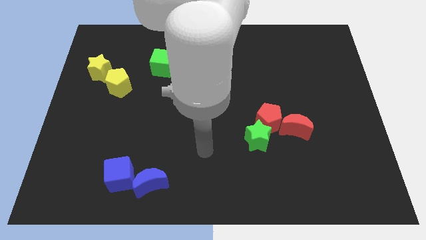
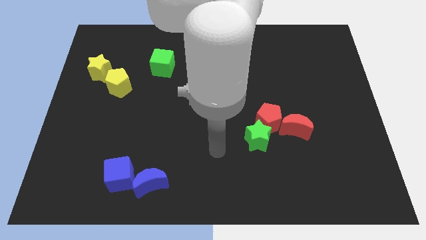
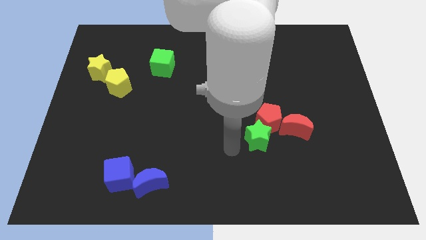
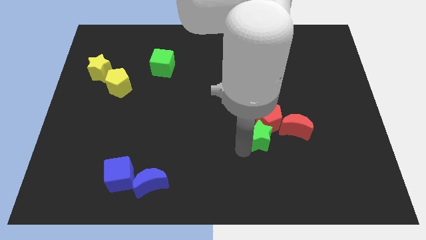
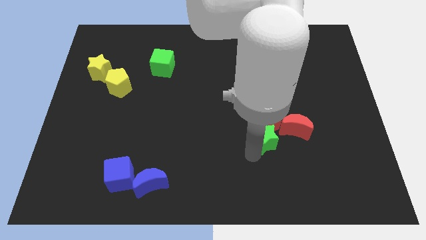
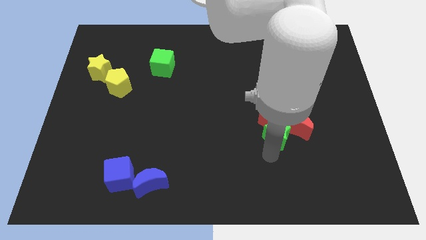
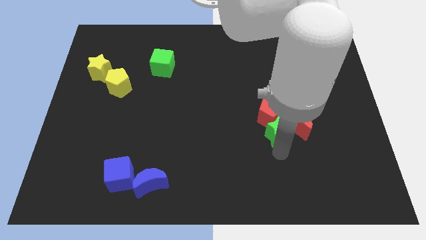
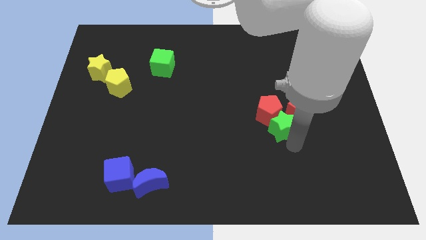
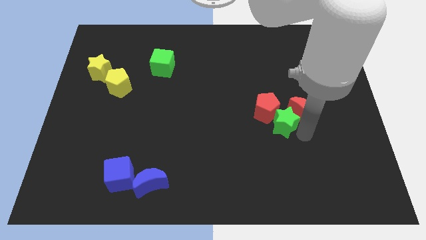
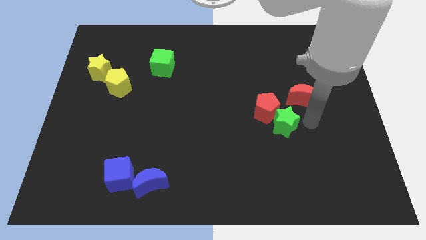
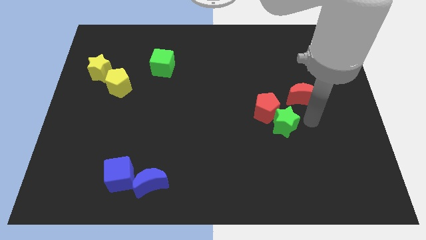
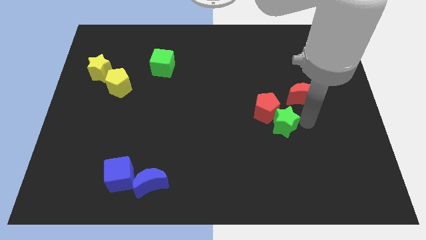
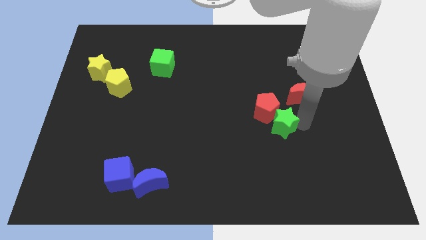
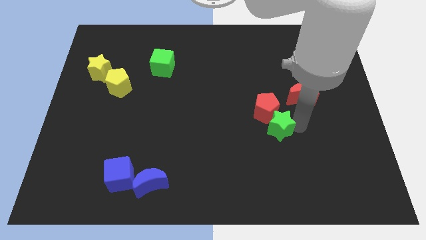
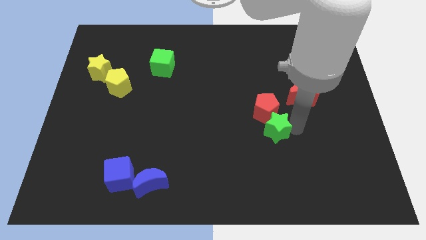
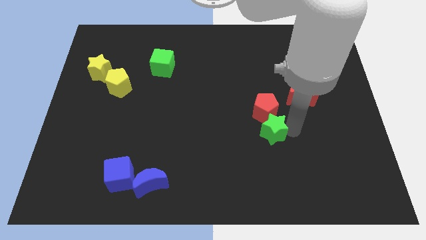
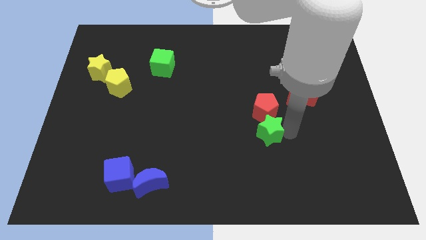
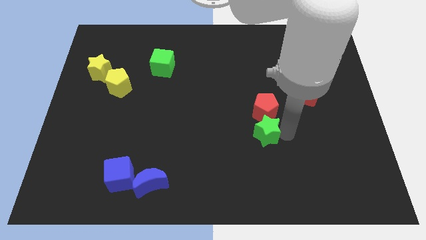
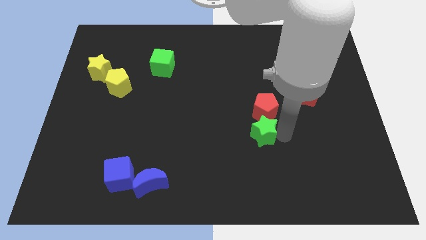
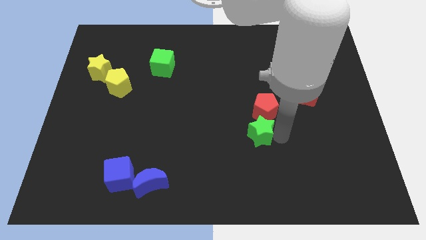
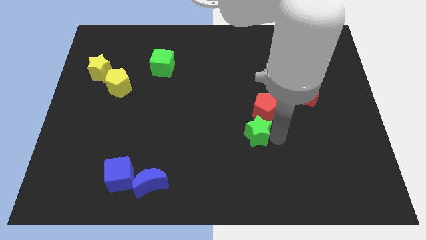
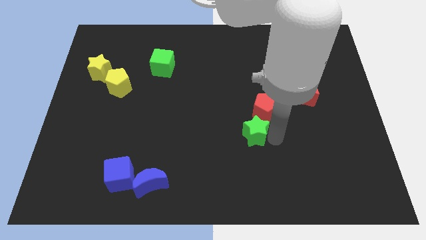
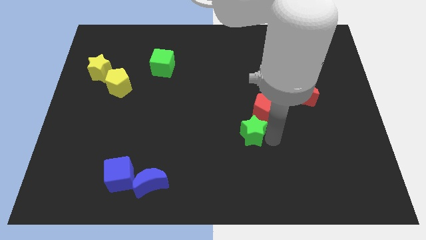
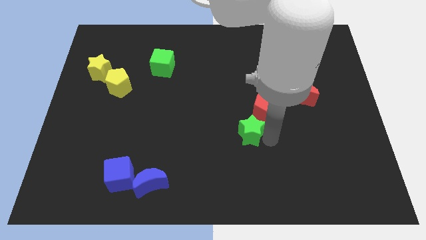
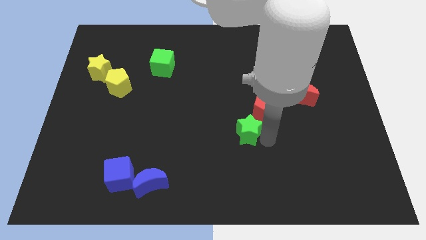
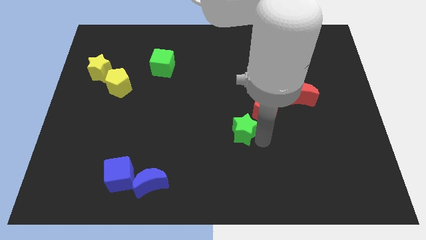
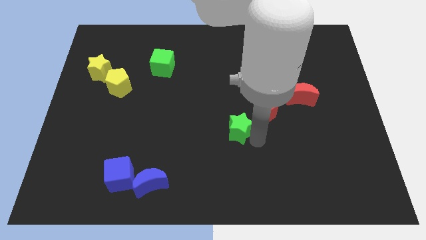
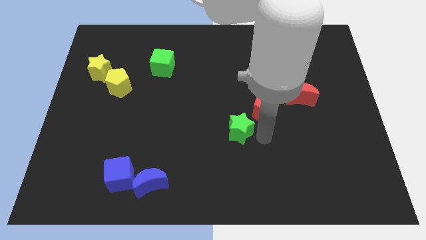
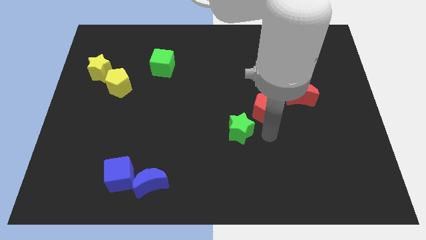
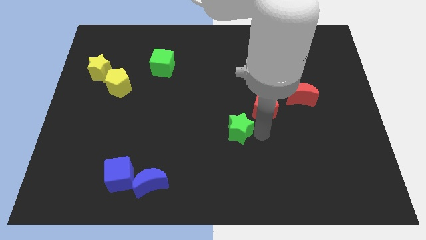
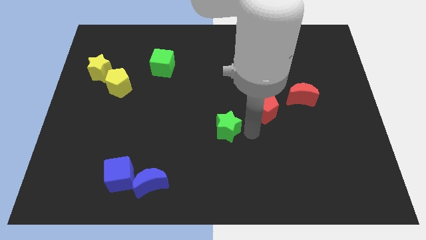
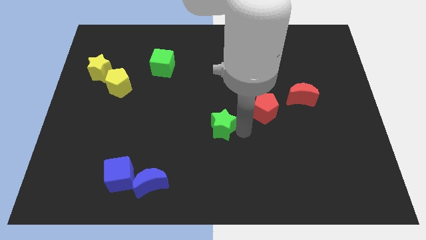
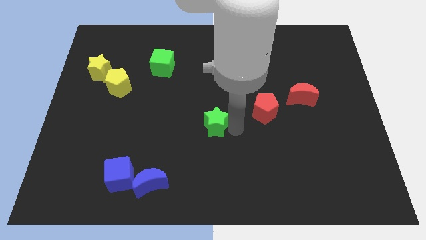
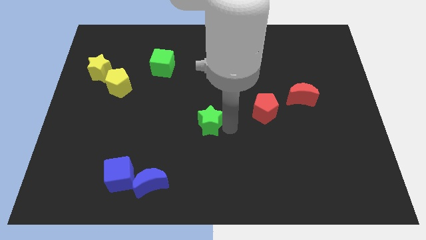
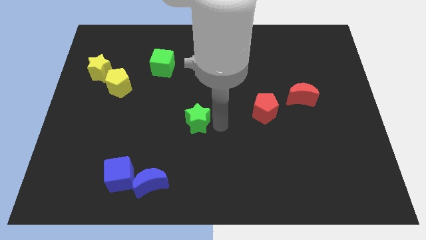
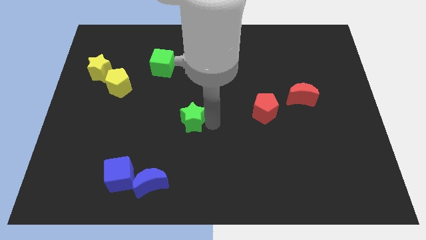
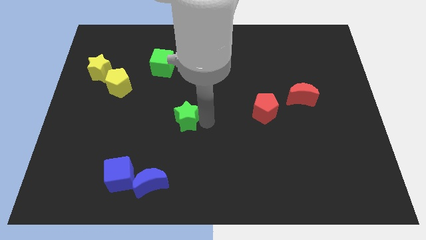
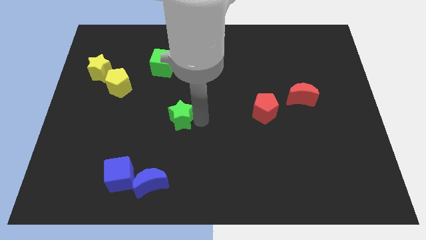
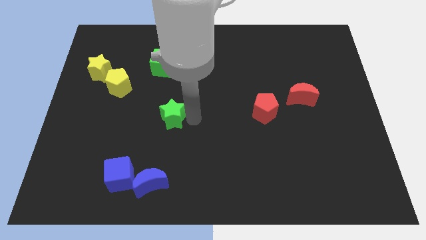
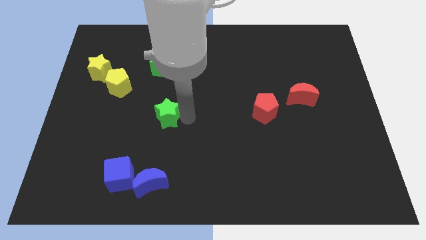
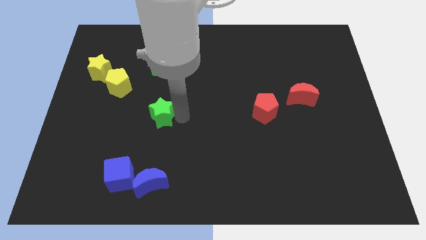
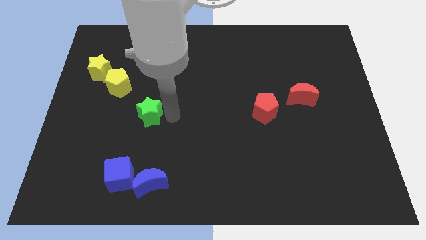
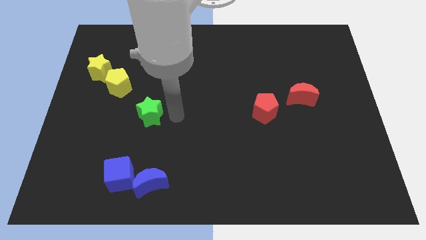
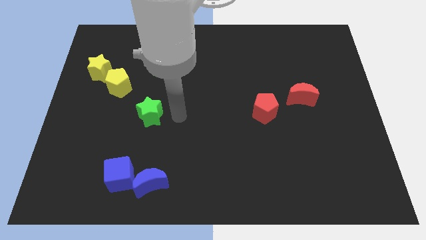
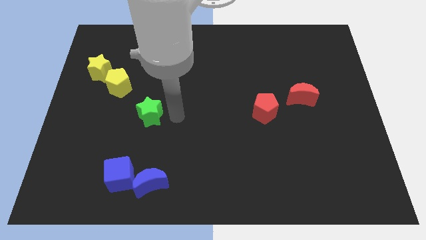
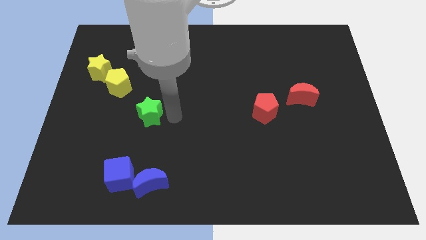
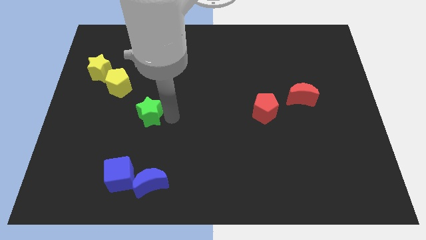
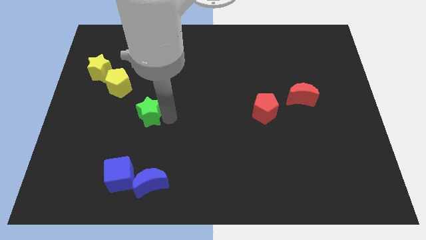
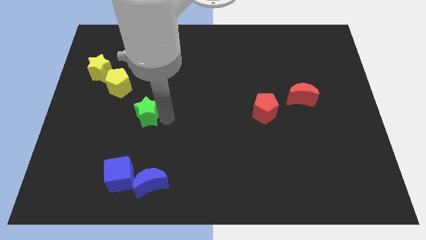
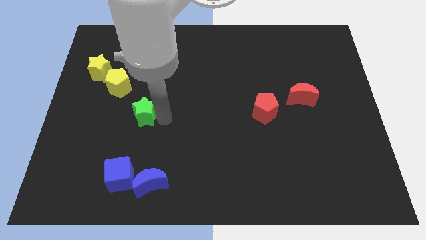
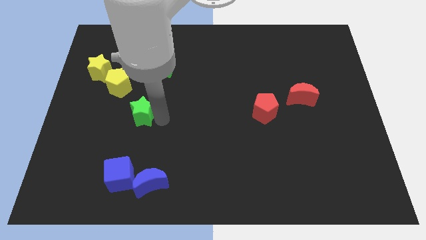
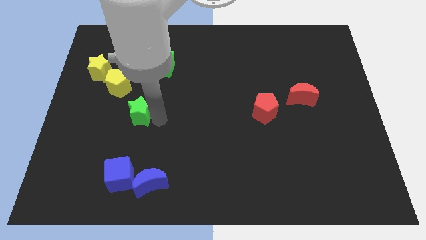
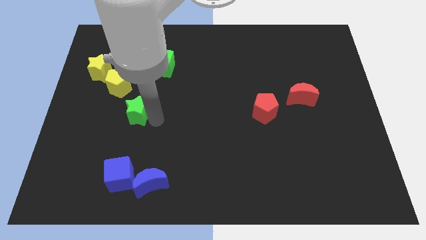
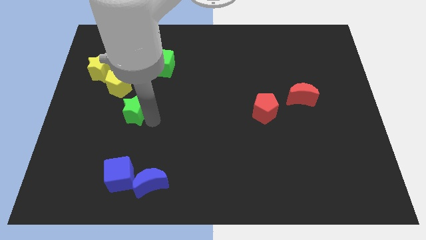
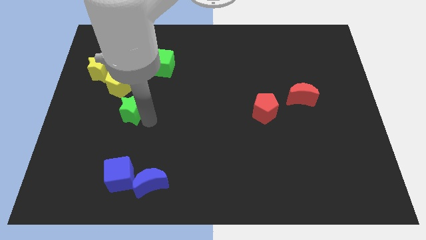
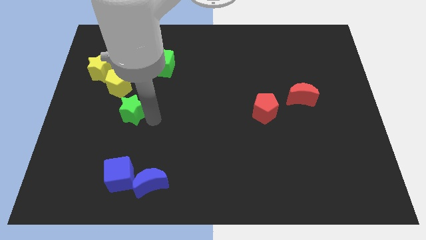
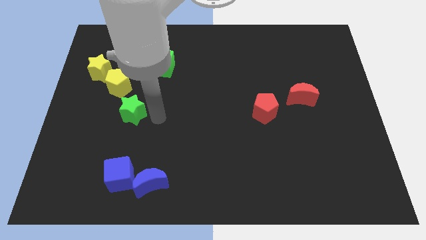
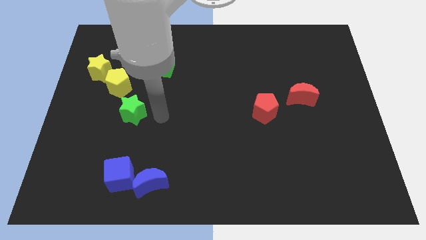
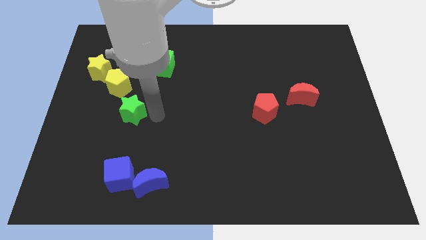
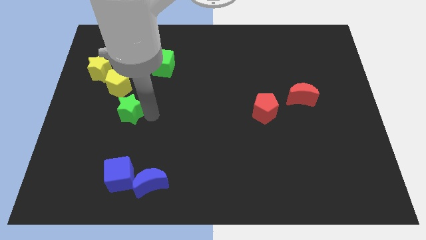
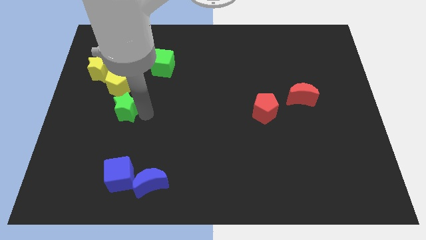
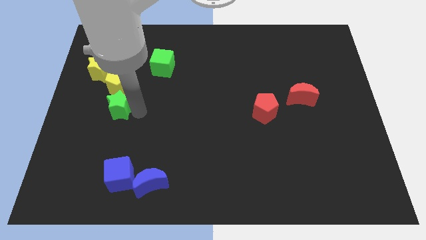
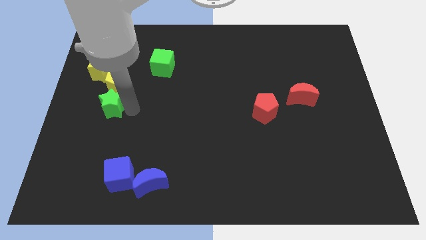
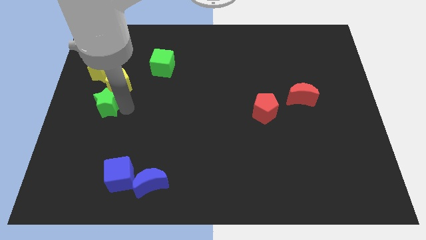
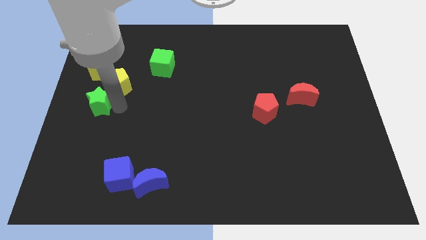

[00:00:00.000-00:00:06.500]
slide the green star to the left side of the board

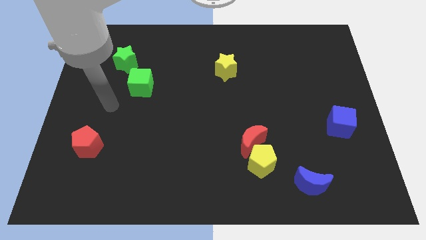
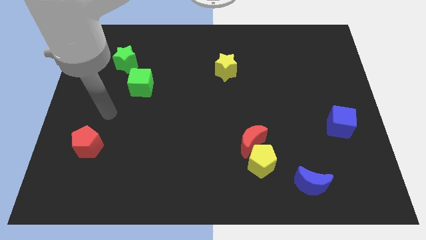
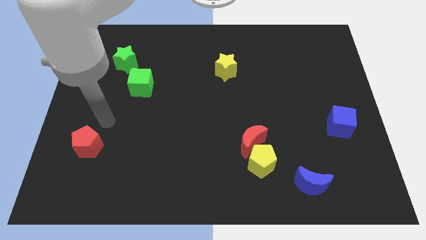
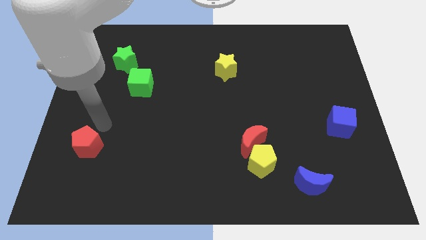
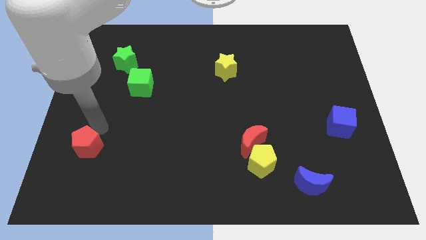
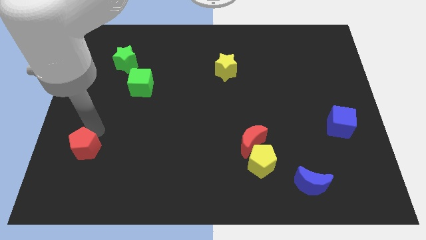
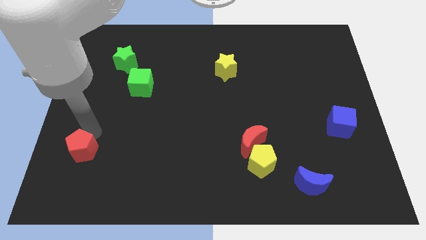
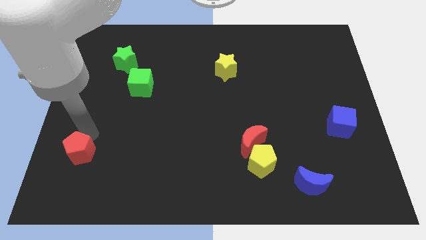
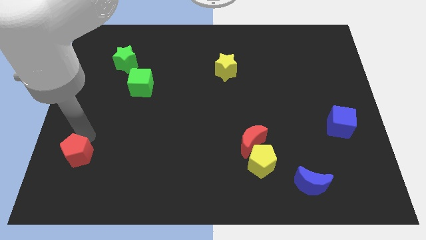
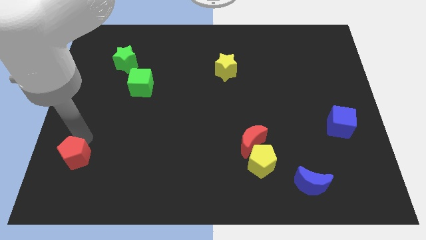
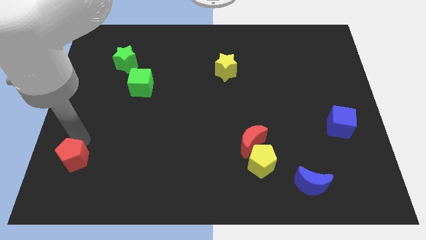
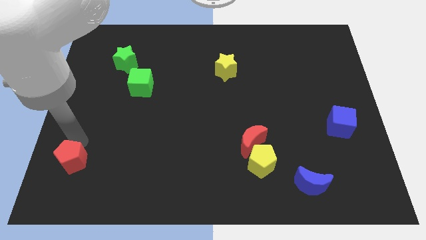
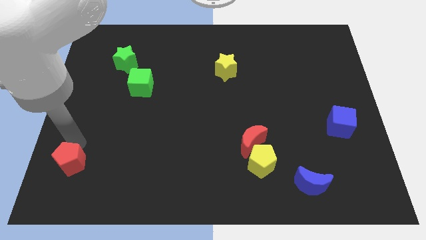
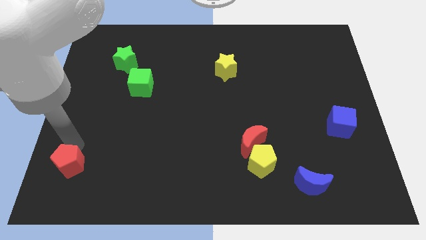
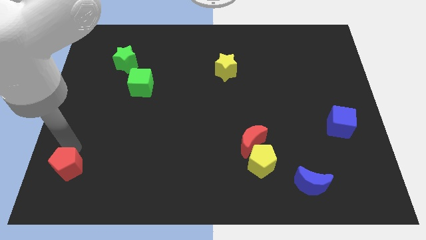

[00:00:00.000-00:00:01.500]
move the red pentagon to the bottom left corner
